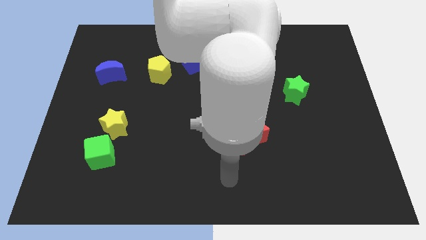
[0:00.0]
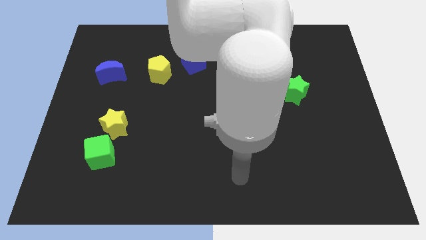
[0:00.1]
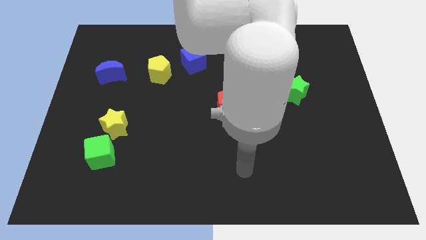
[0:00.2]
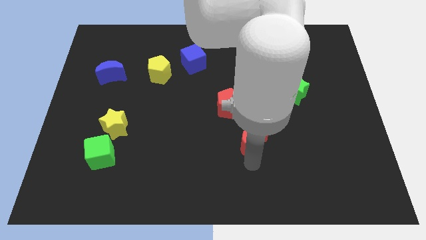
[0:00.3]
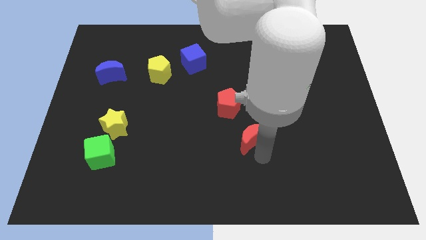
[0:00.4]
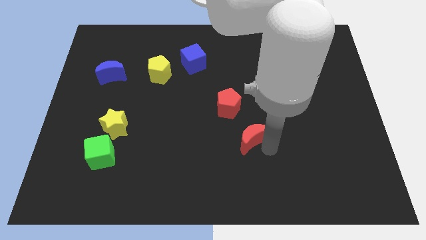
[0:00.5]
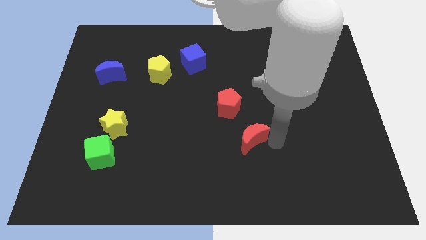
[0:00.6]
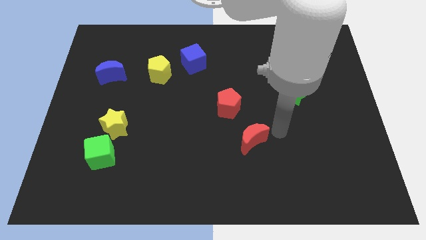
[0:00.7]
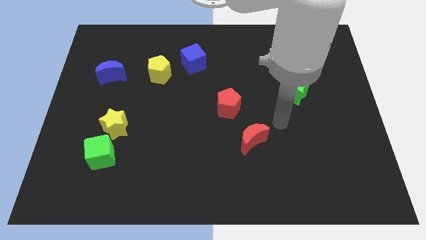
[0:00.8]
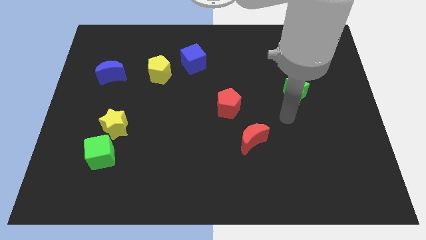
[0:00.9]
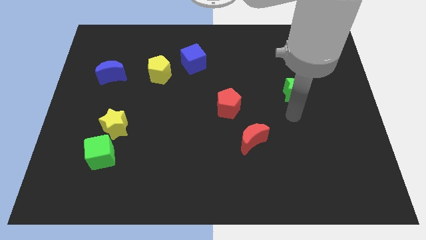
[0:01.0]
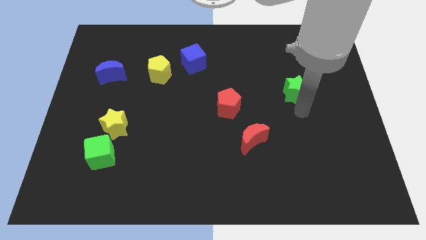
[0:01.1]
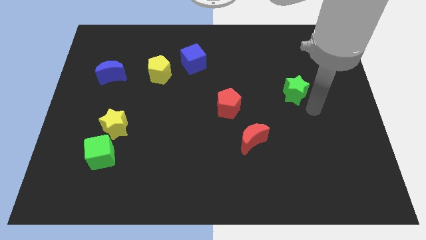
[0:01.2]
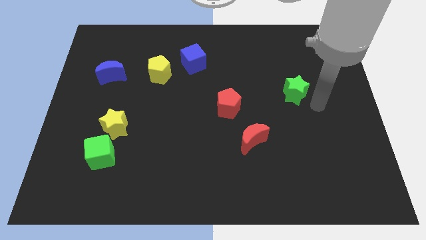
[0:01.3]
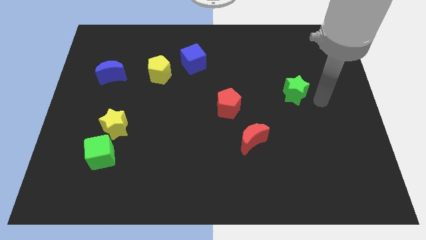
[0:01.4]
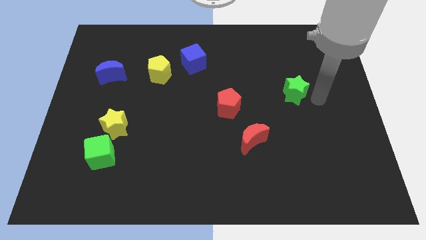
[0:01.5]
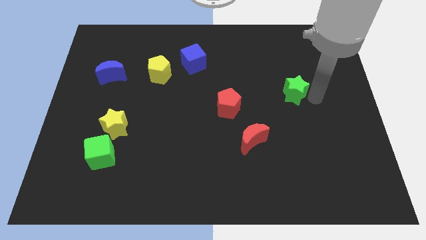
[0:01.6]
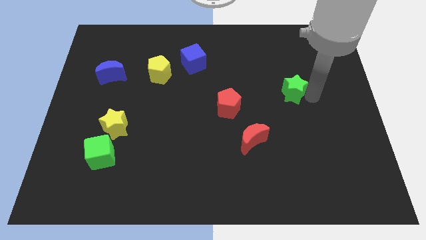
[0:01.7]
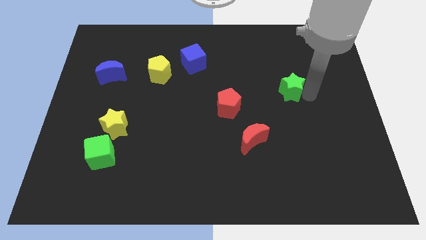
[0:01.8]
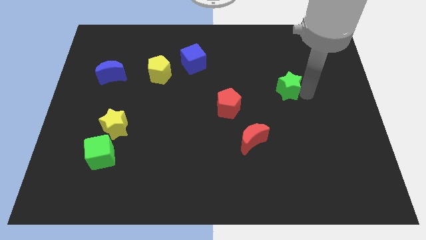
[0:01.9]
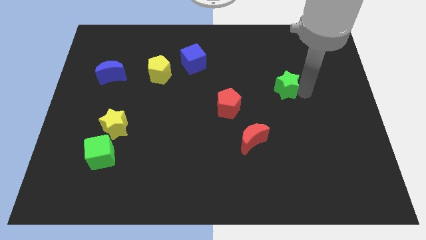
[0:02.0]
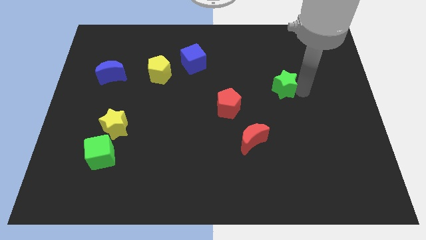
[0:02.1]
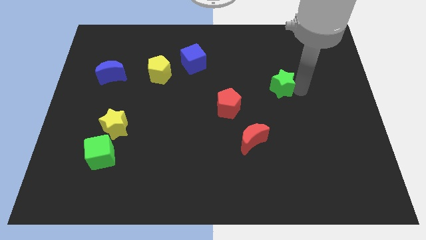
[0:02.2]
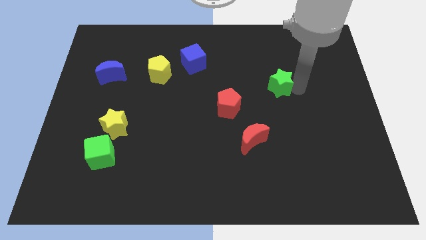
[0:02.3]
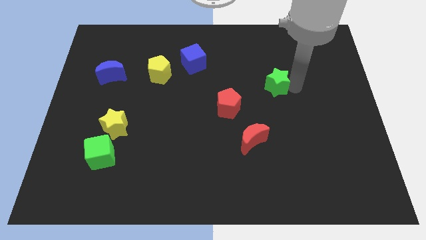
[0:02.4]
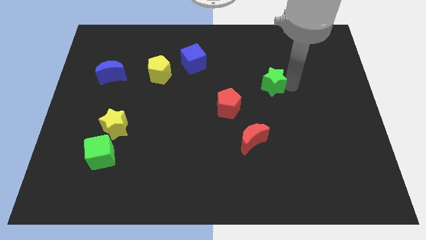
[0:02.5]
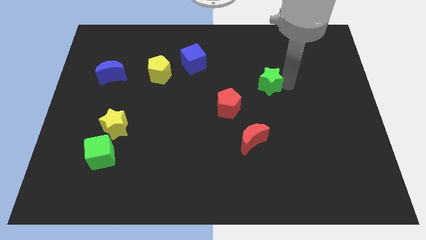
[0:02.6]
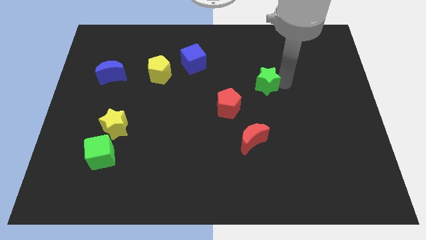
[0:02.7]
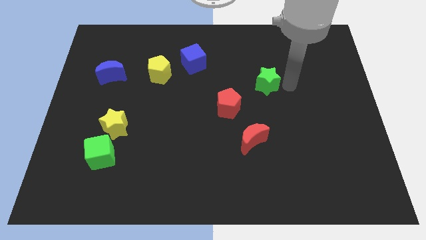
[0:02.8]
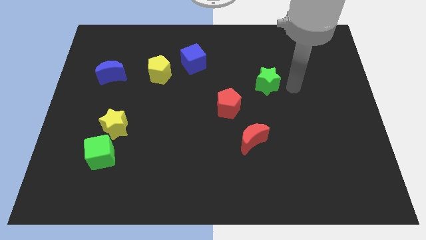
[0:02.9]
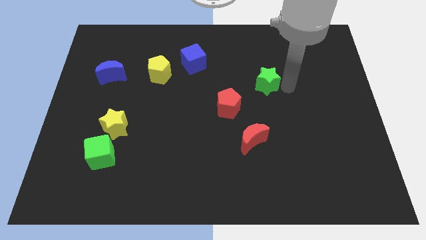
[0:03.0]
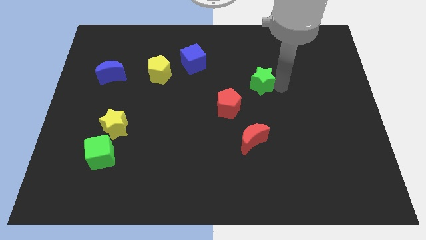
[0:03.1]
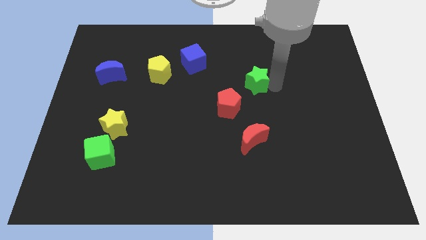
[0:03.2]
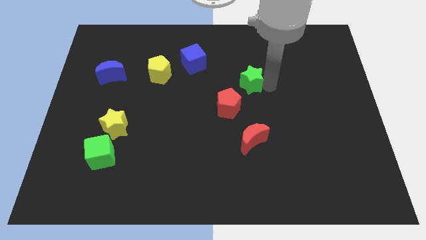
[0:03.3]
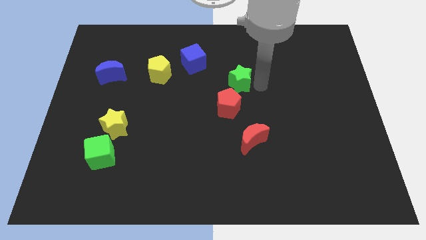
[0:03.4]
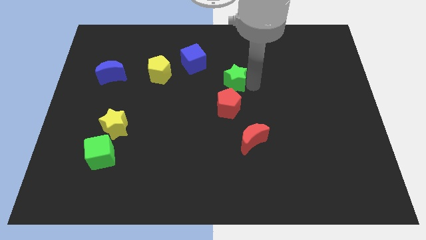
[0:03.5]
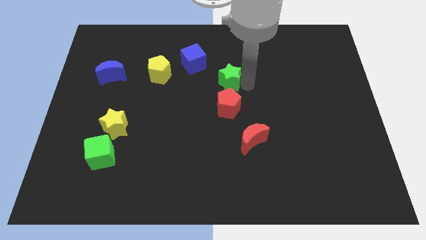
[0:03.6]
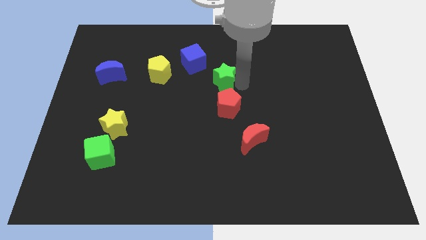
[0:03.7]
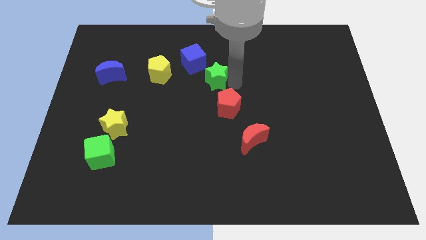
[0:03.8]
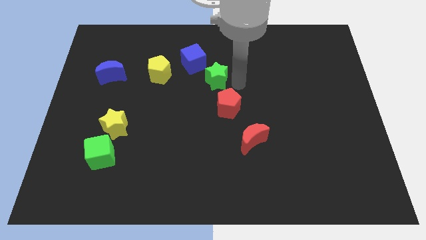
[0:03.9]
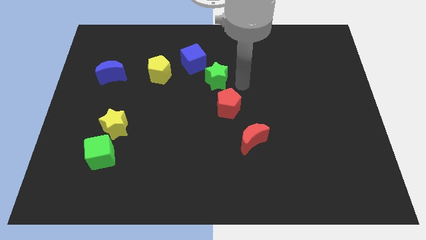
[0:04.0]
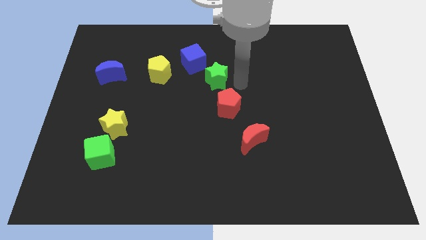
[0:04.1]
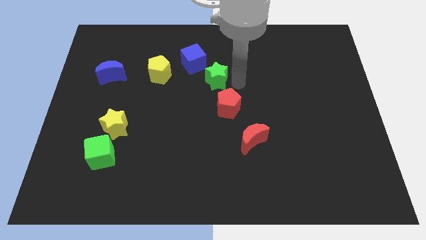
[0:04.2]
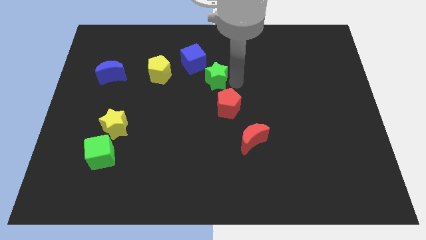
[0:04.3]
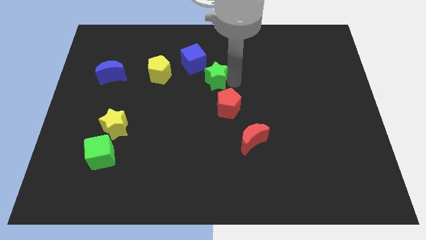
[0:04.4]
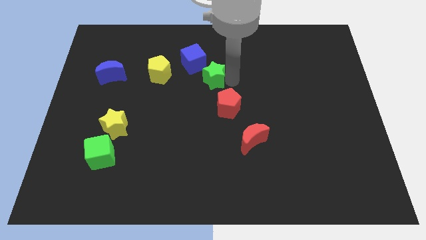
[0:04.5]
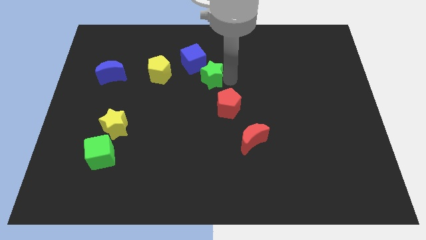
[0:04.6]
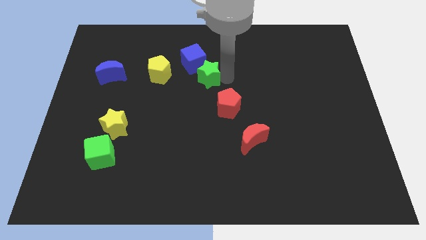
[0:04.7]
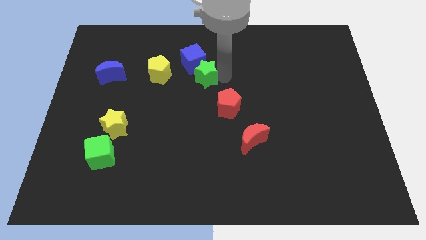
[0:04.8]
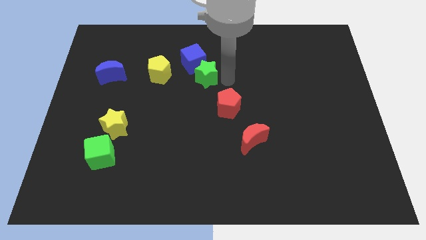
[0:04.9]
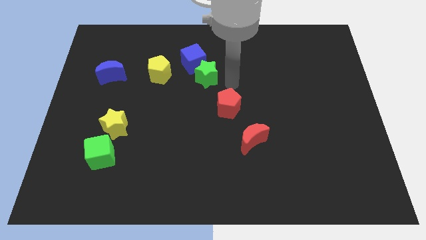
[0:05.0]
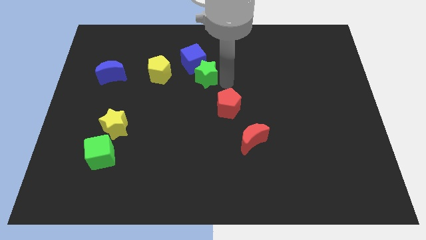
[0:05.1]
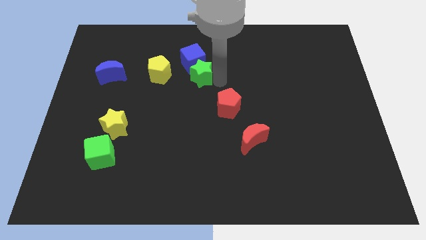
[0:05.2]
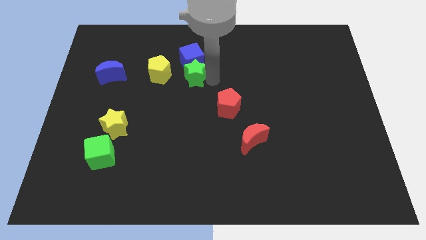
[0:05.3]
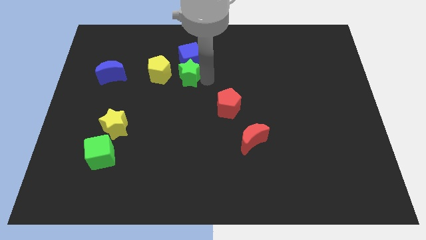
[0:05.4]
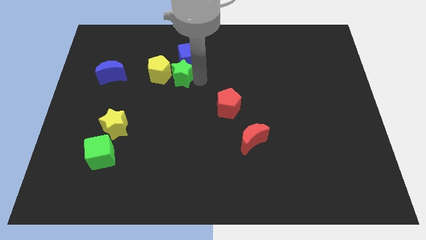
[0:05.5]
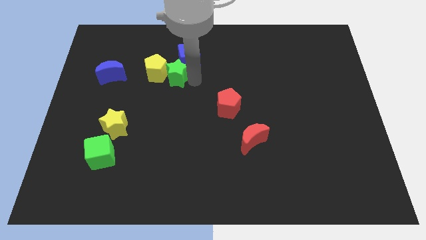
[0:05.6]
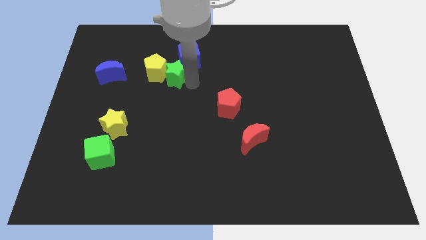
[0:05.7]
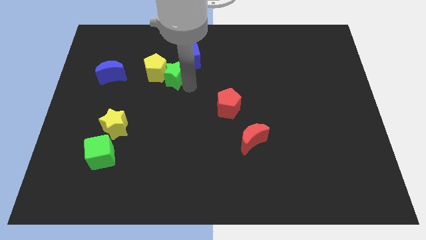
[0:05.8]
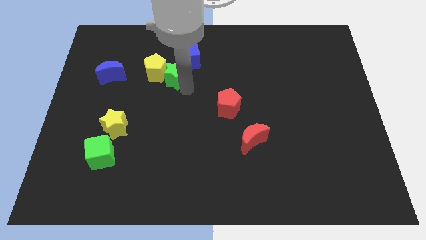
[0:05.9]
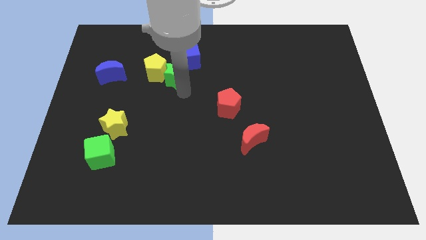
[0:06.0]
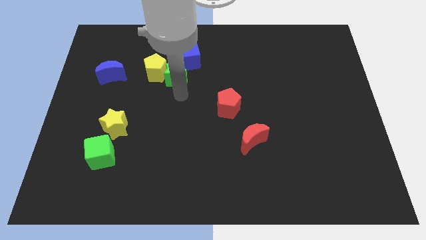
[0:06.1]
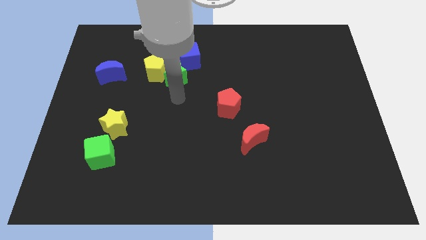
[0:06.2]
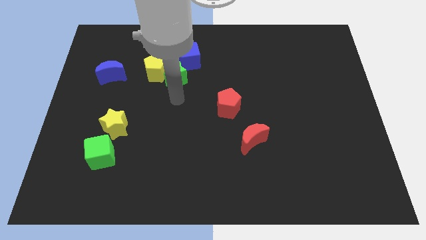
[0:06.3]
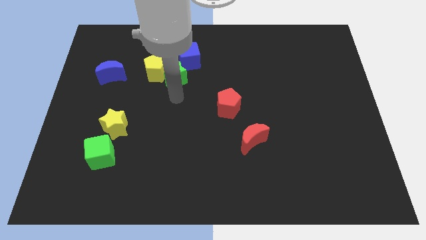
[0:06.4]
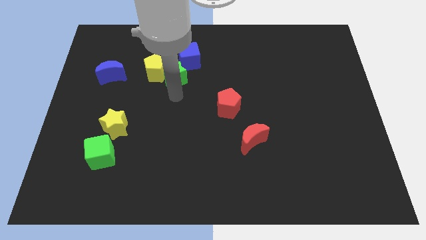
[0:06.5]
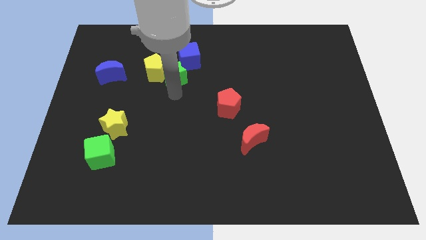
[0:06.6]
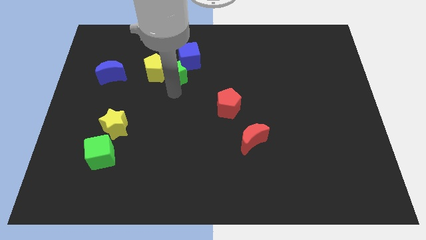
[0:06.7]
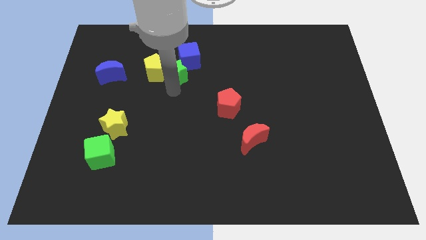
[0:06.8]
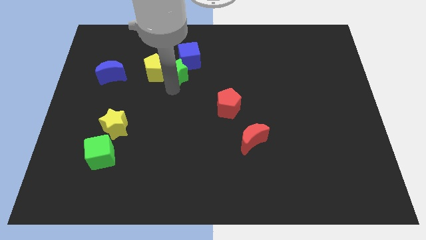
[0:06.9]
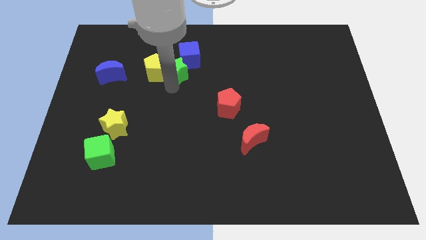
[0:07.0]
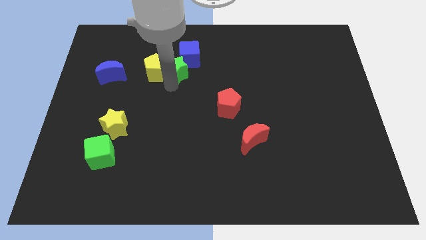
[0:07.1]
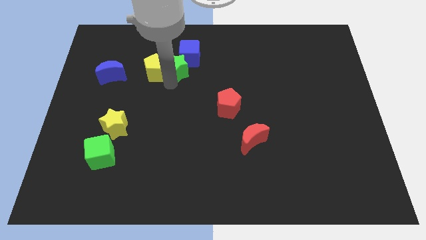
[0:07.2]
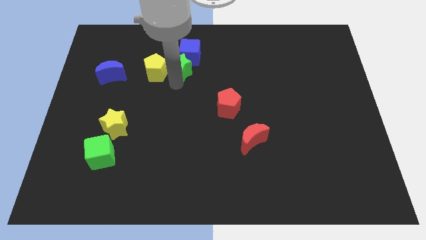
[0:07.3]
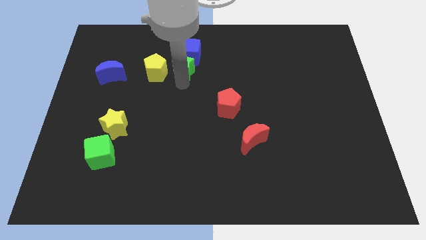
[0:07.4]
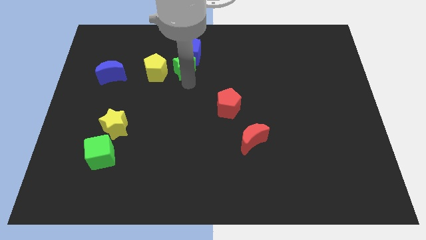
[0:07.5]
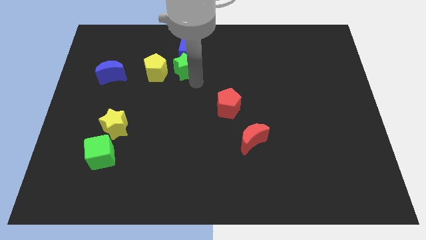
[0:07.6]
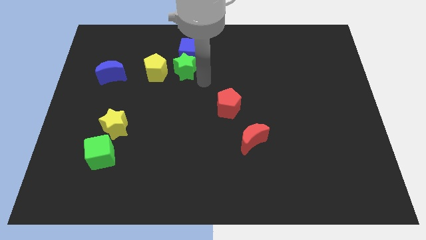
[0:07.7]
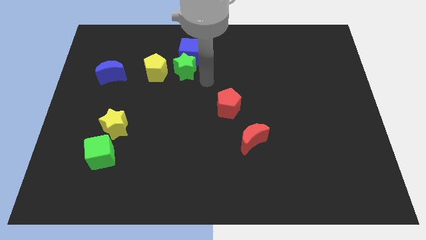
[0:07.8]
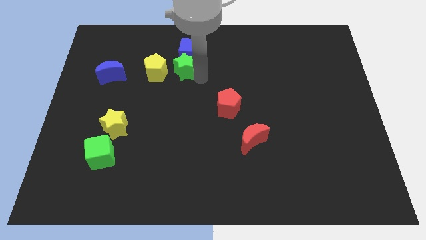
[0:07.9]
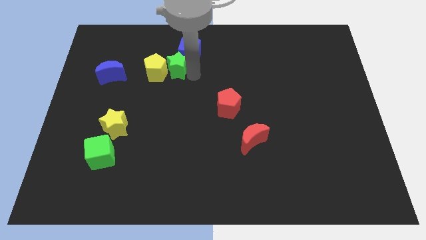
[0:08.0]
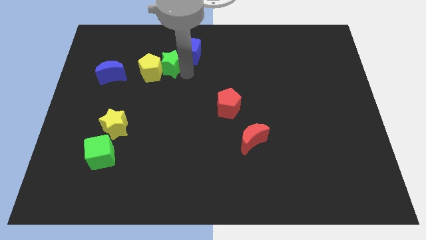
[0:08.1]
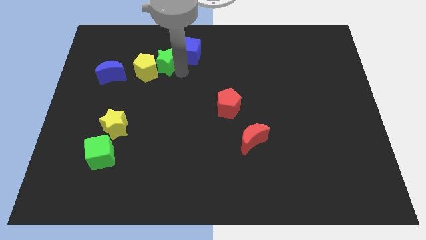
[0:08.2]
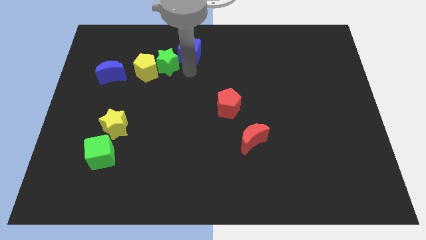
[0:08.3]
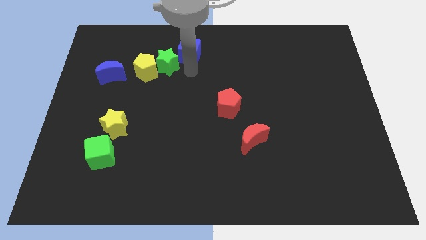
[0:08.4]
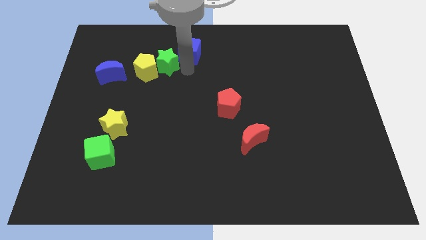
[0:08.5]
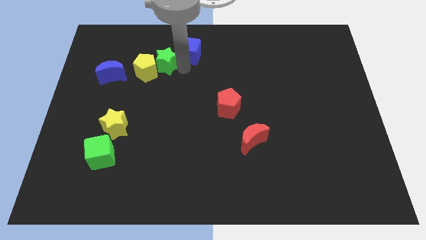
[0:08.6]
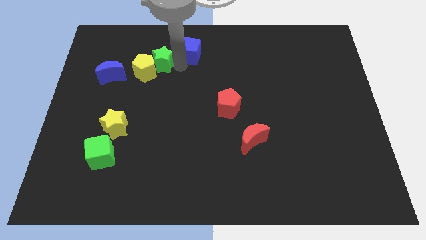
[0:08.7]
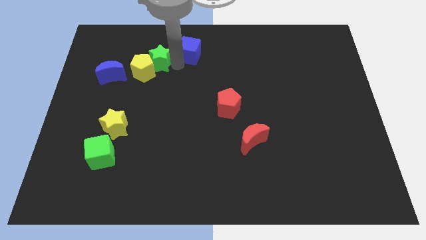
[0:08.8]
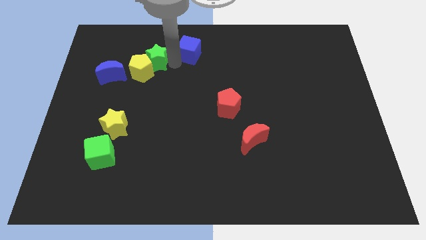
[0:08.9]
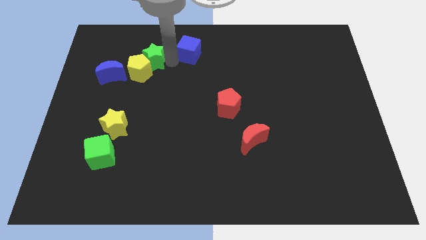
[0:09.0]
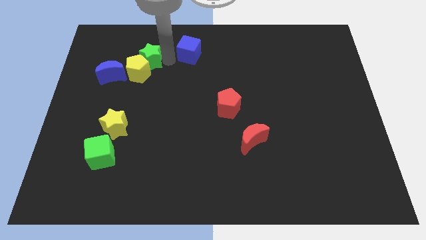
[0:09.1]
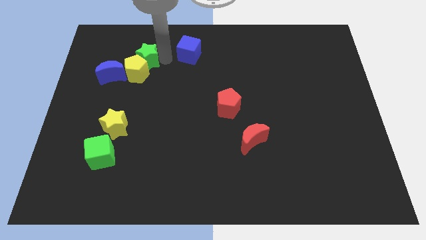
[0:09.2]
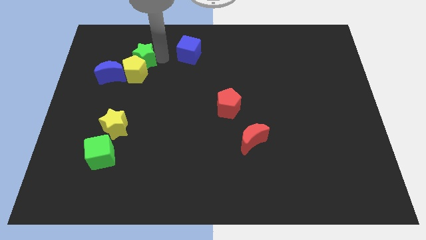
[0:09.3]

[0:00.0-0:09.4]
slide the green star to the top left of the yellow pentagon
